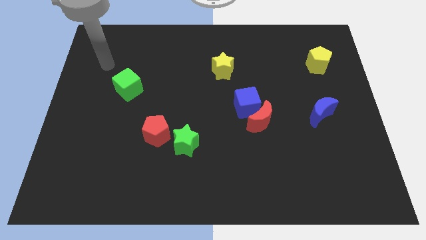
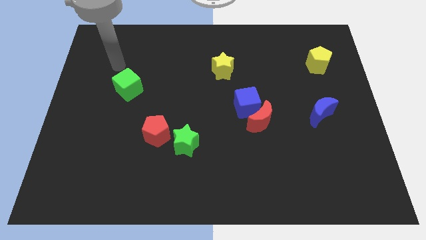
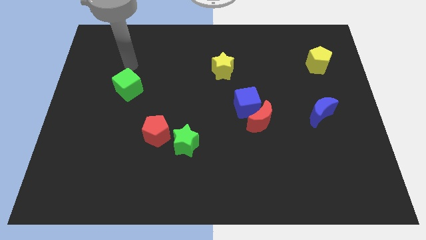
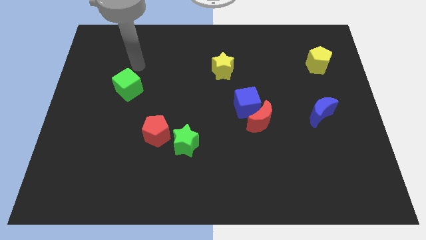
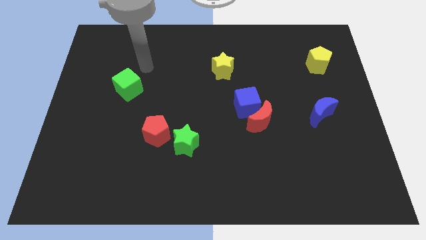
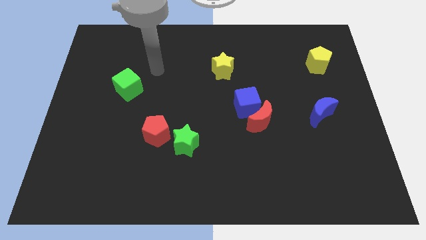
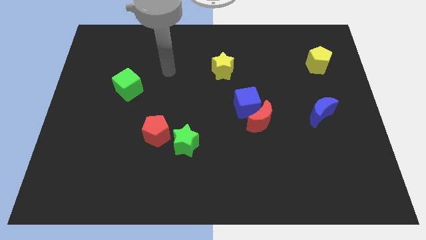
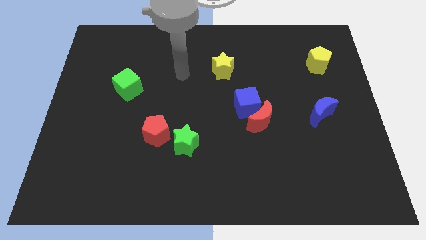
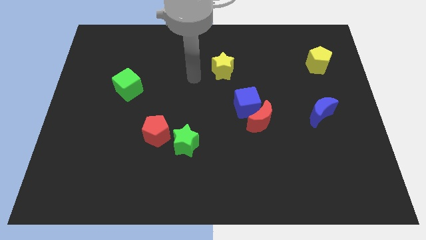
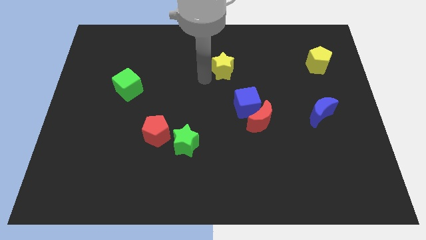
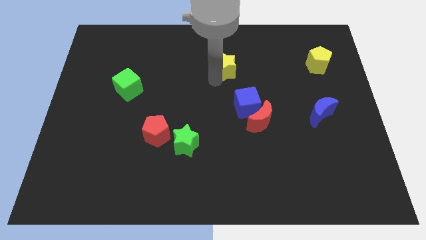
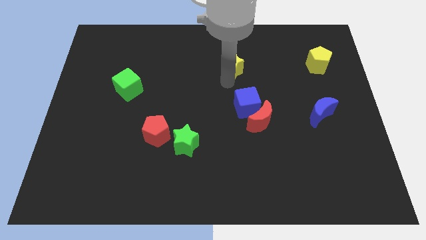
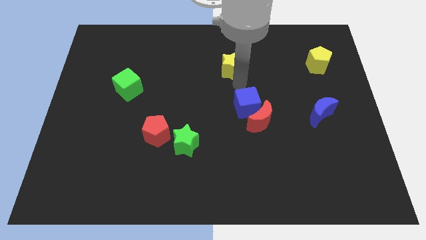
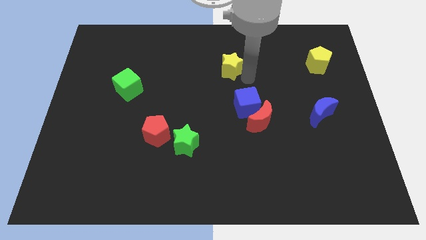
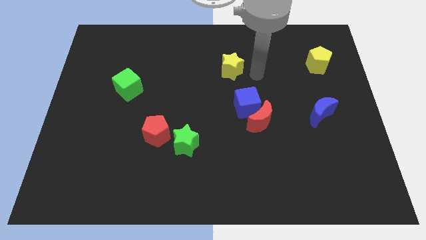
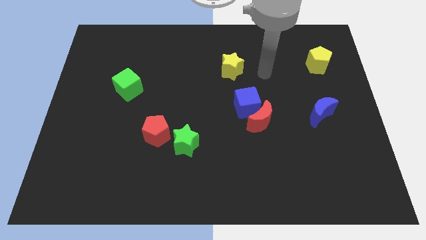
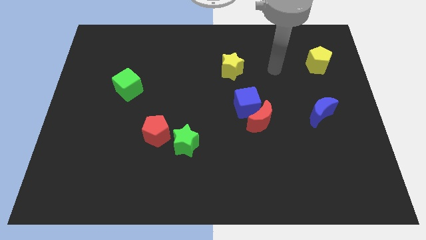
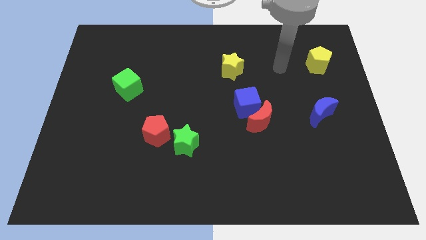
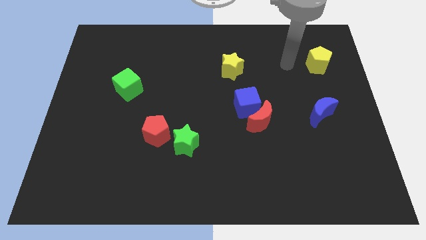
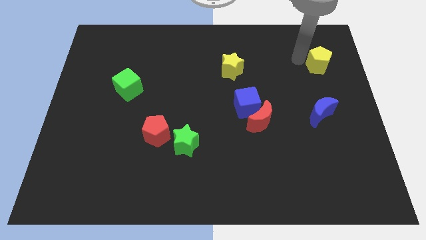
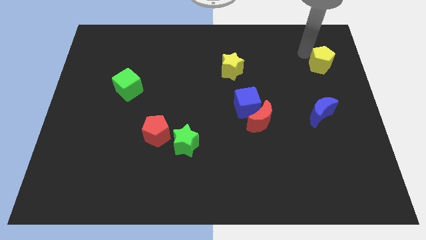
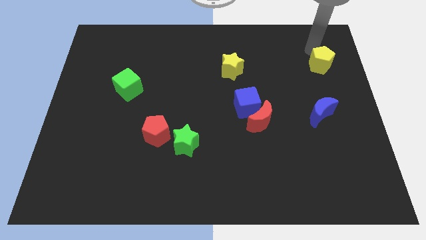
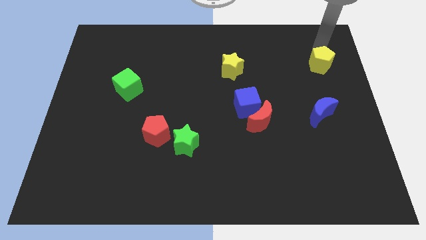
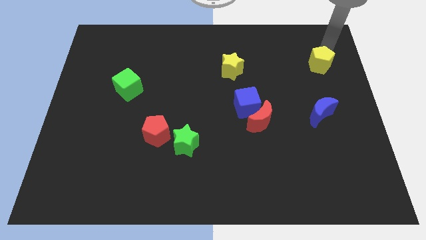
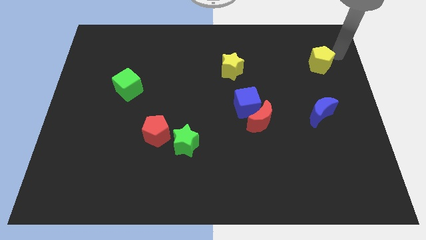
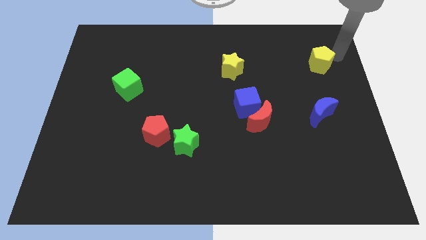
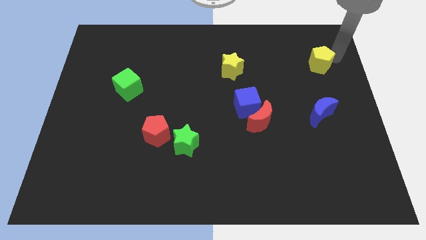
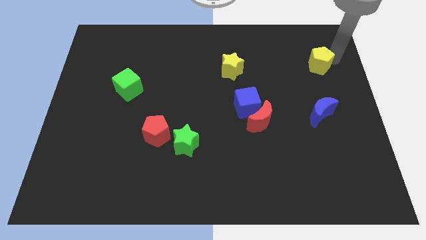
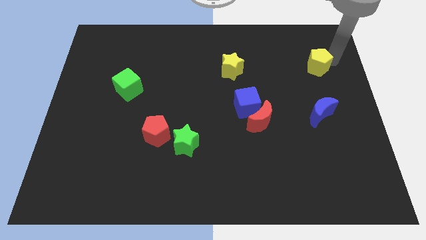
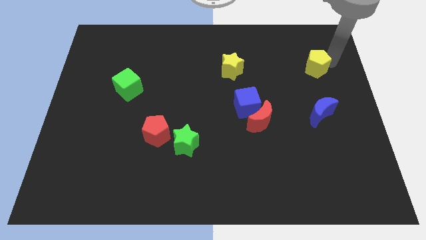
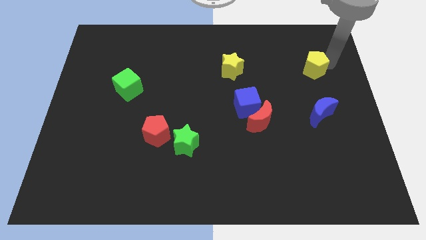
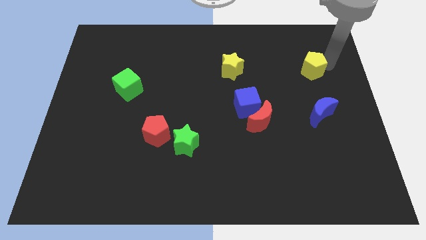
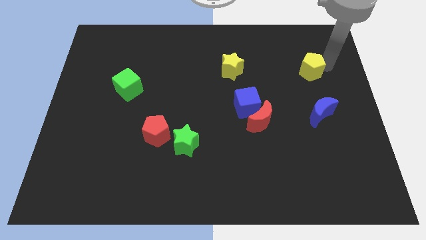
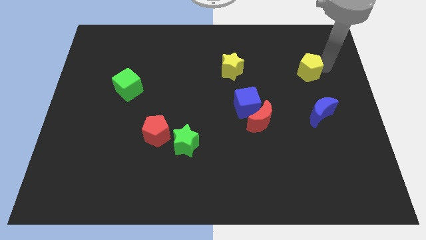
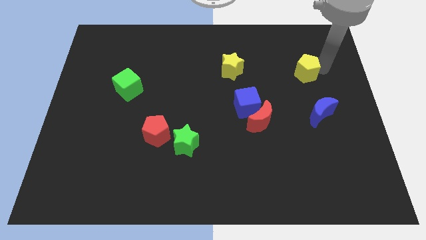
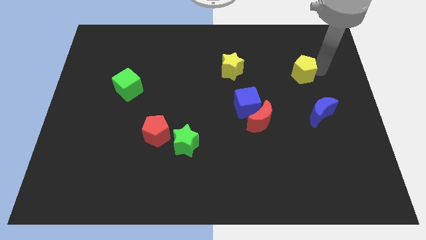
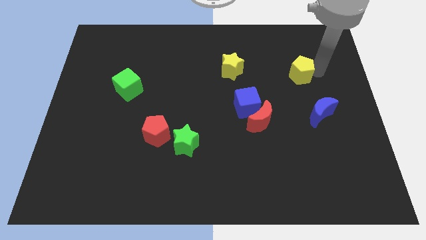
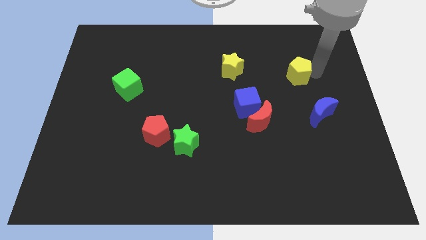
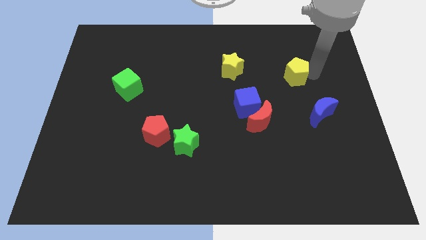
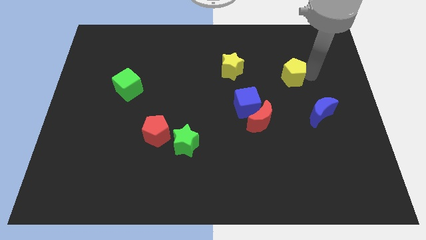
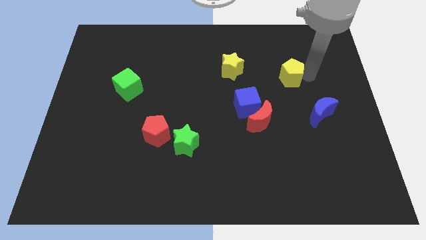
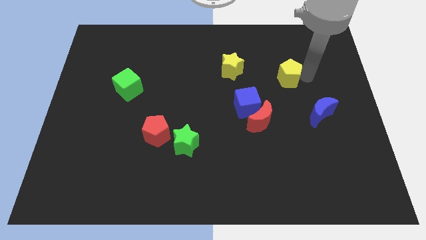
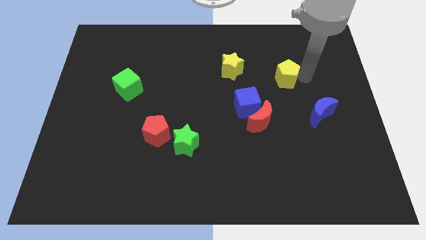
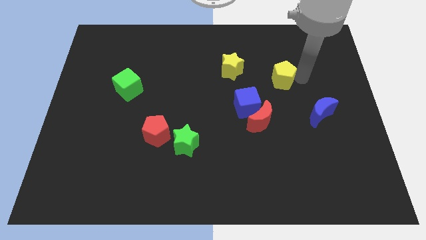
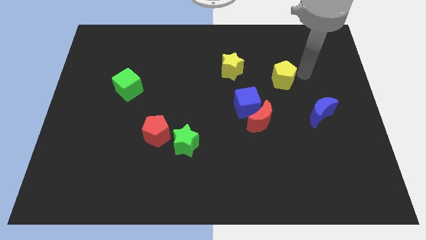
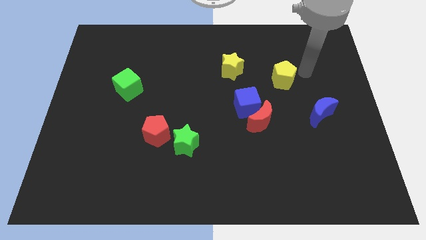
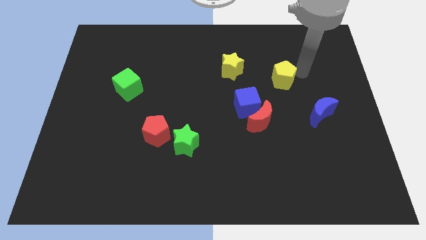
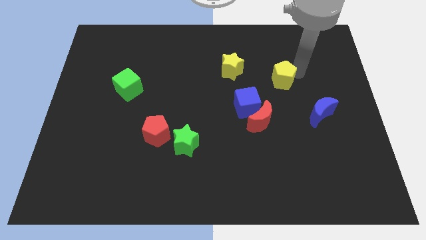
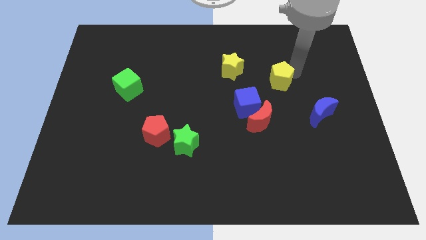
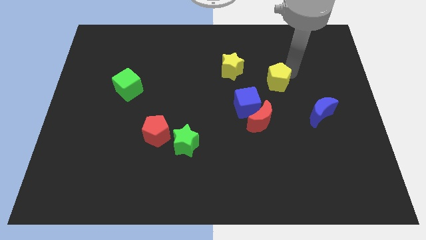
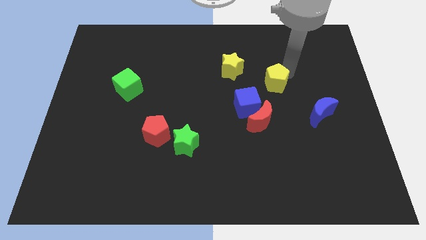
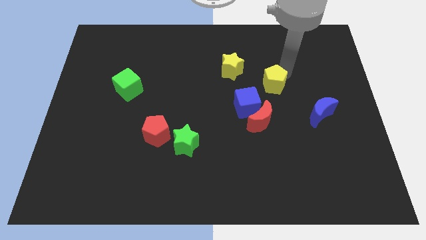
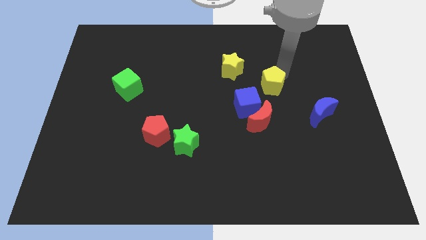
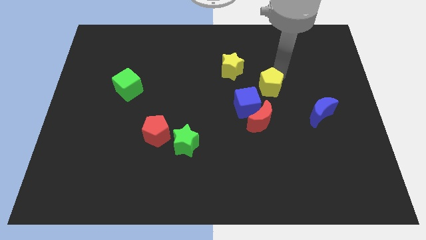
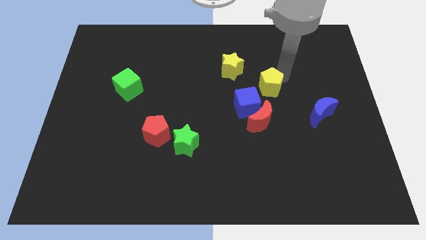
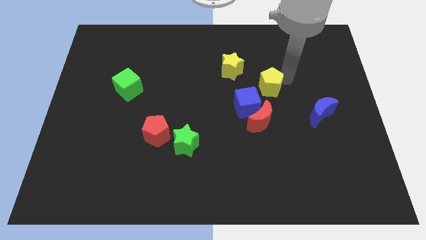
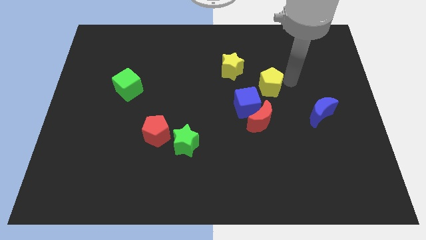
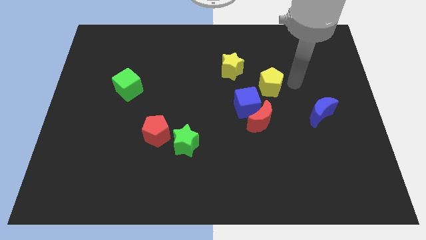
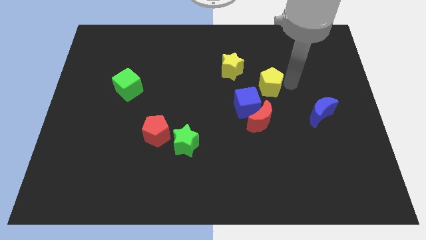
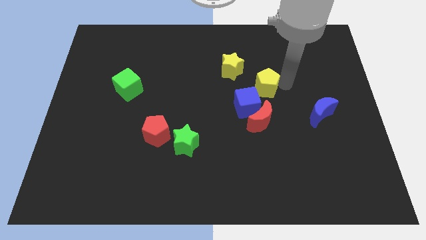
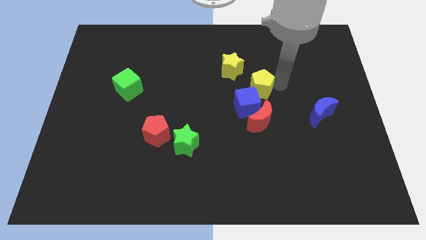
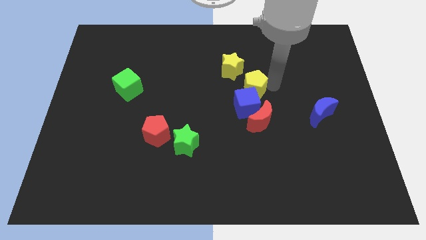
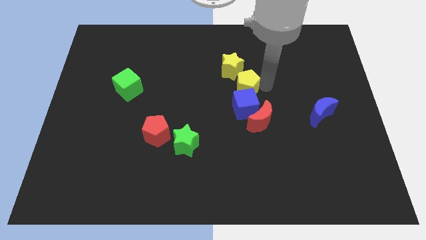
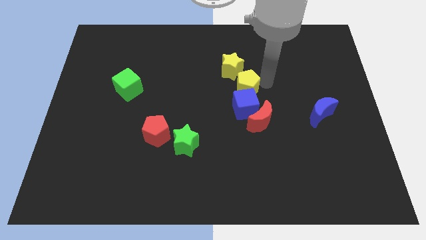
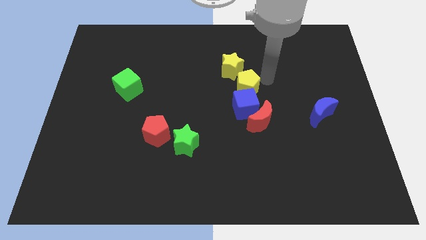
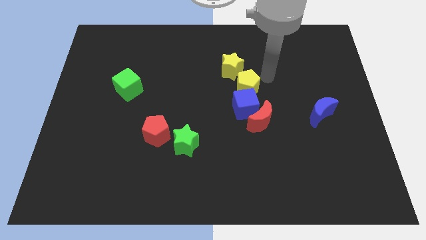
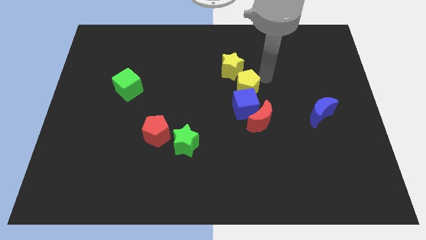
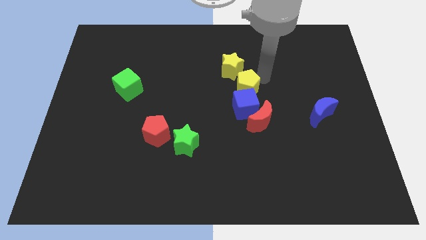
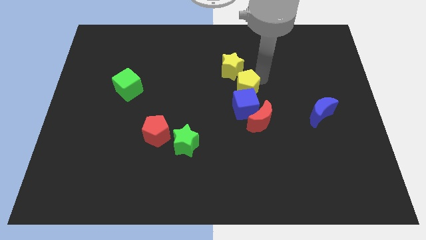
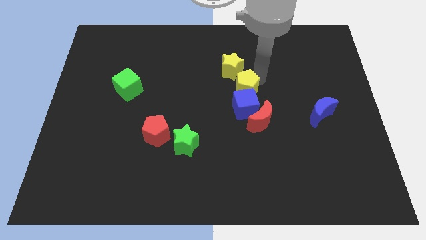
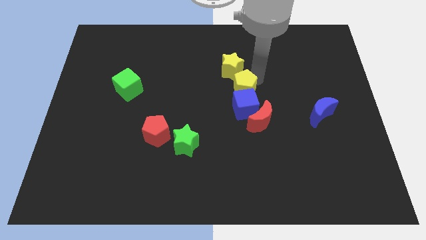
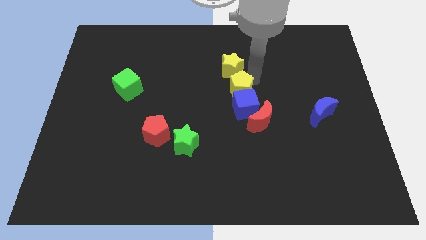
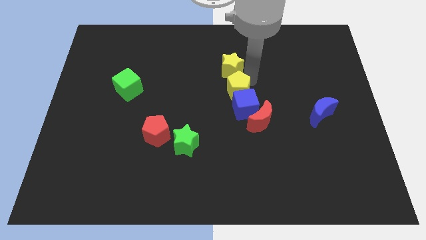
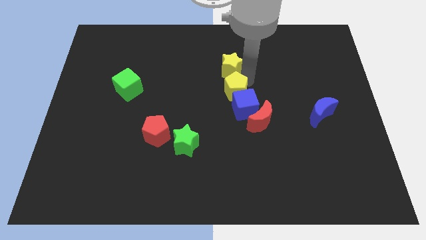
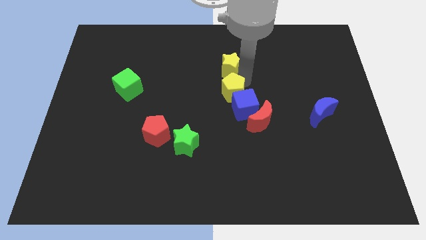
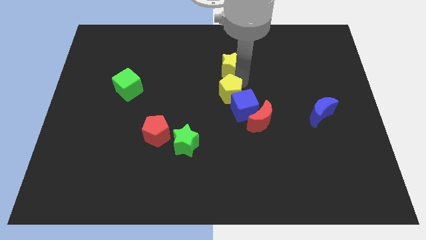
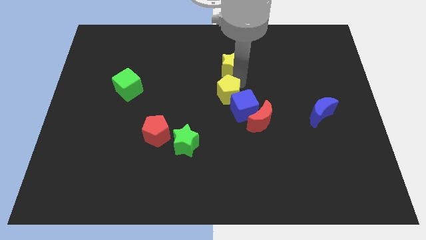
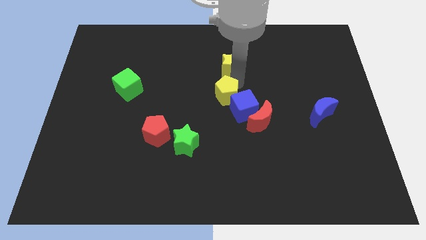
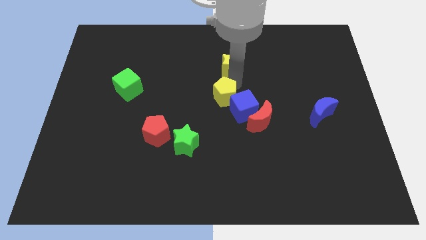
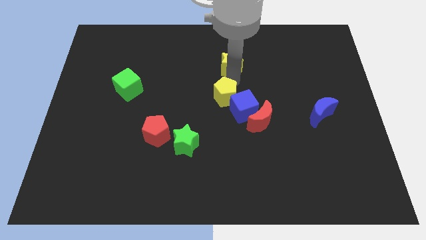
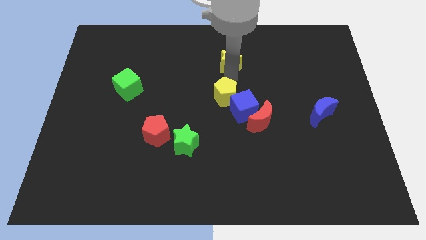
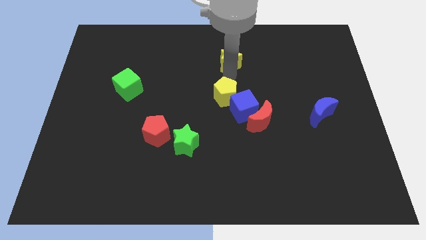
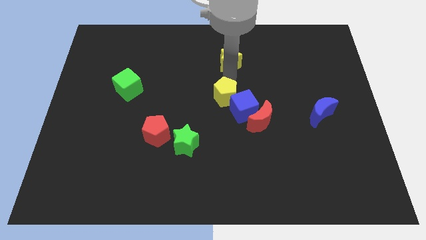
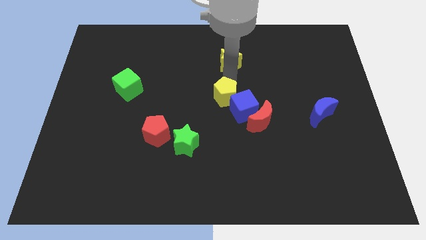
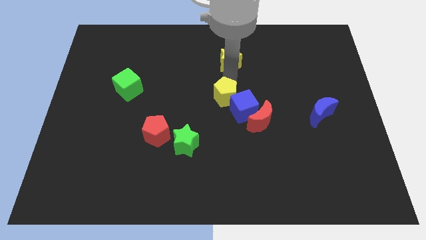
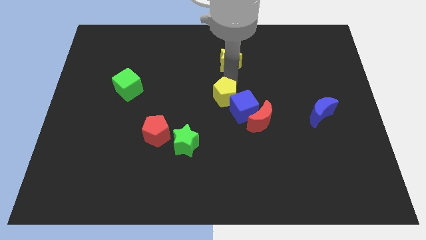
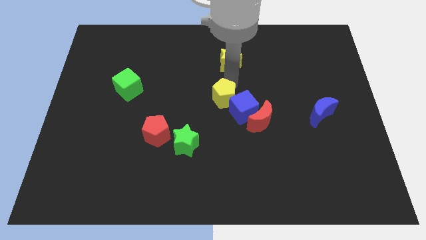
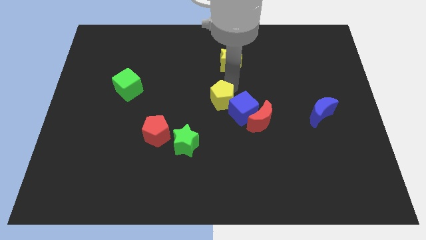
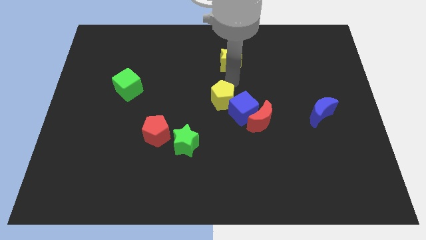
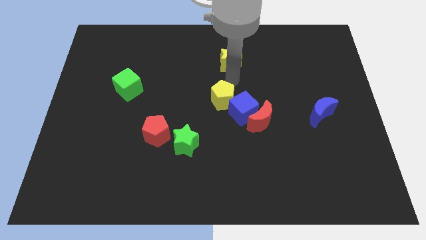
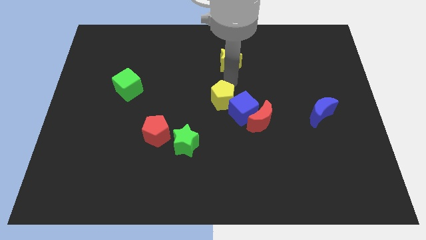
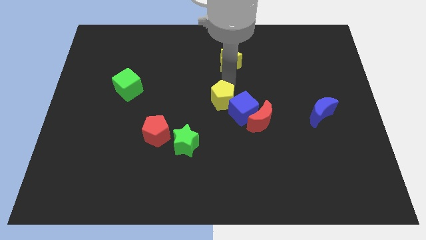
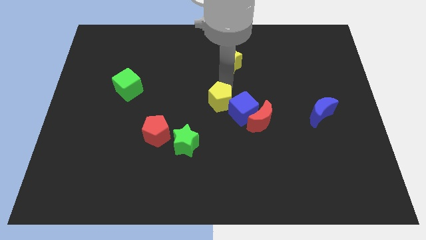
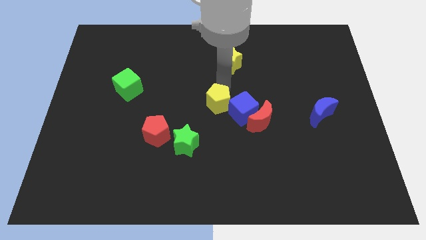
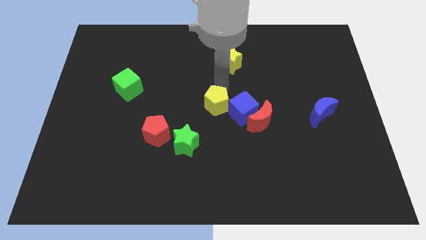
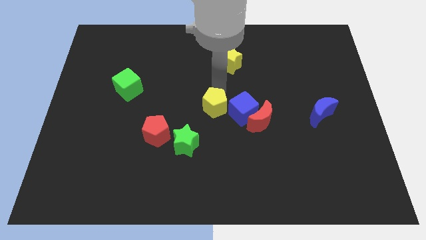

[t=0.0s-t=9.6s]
push the yellow pentagon to the top right side of the green star
